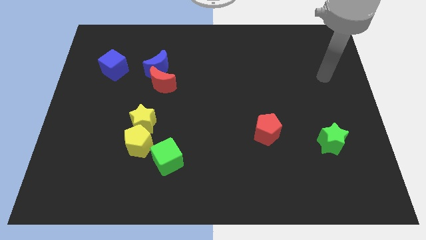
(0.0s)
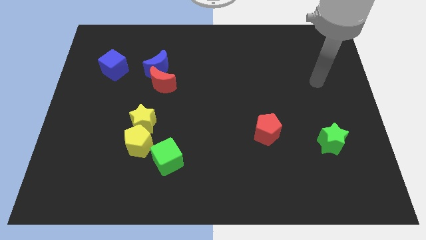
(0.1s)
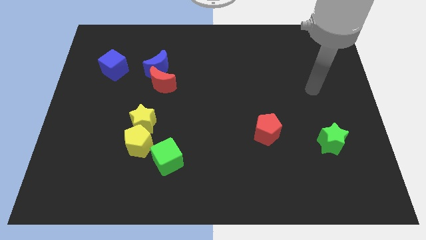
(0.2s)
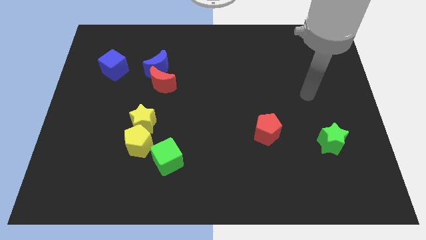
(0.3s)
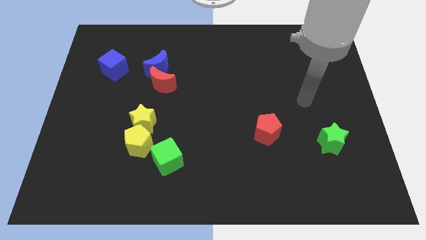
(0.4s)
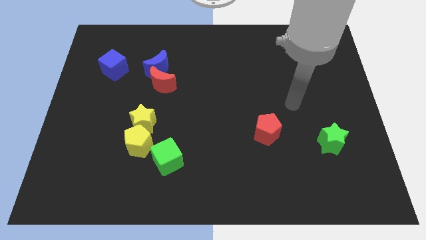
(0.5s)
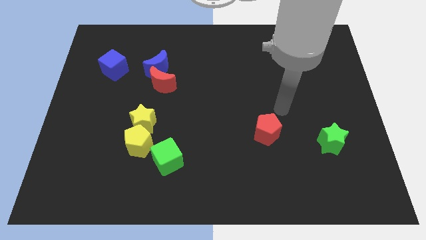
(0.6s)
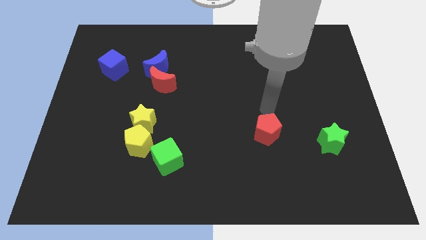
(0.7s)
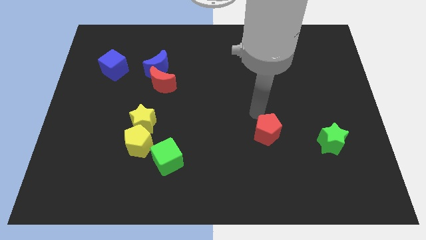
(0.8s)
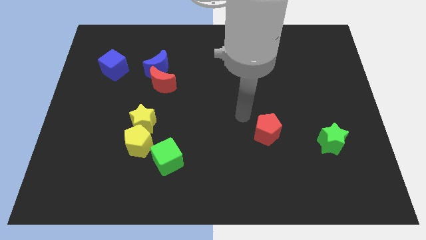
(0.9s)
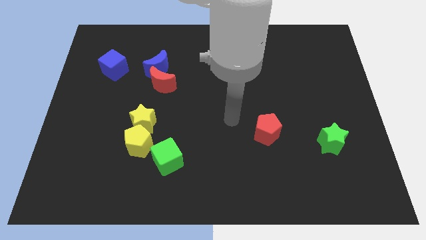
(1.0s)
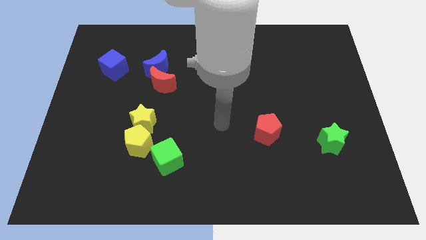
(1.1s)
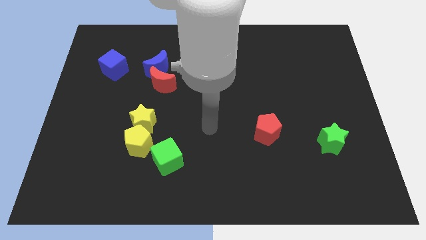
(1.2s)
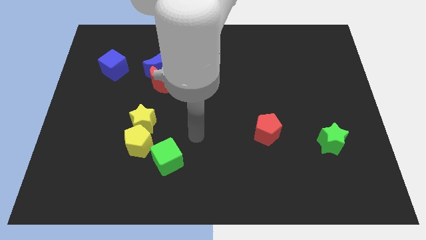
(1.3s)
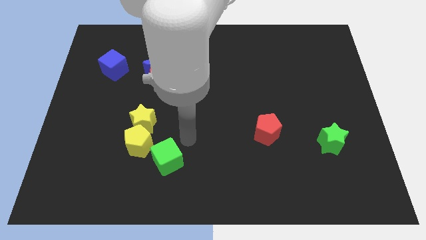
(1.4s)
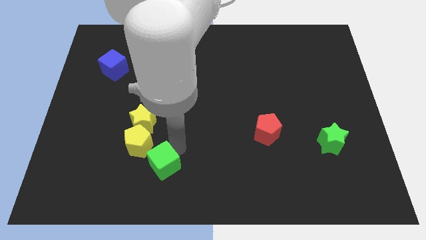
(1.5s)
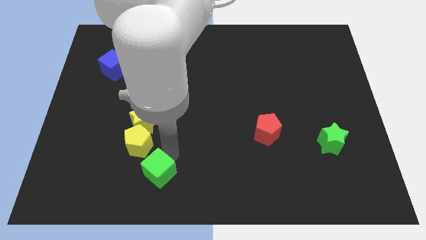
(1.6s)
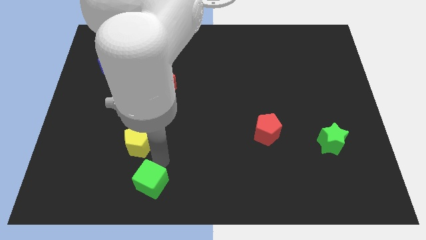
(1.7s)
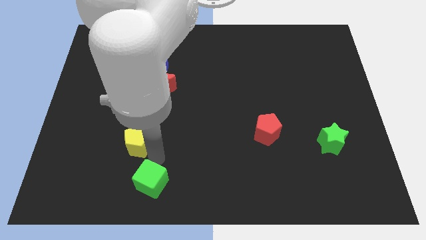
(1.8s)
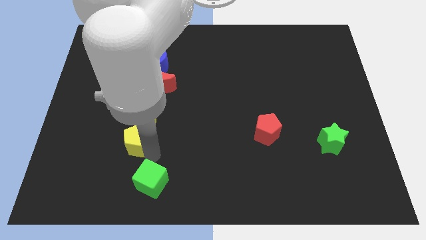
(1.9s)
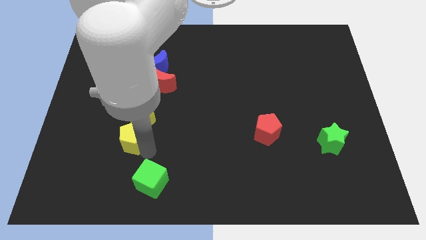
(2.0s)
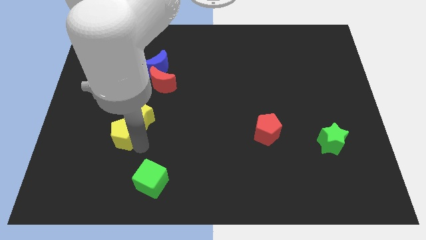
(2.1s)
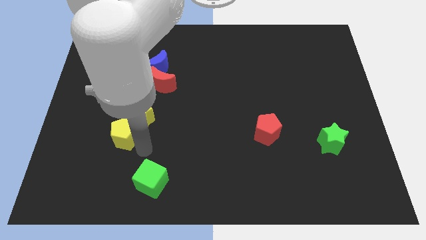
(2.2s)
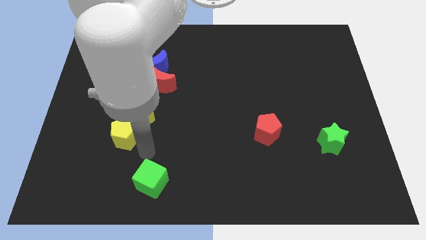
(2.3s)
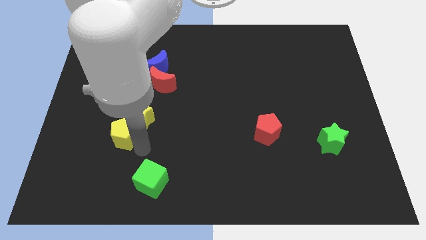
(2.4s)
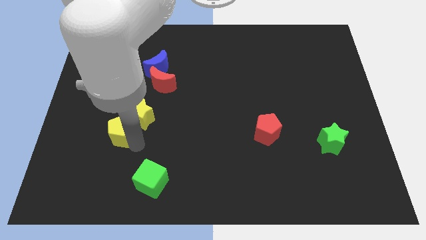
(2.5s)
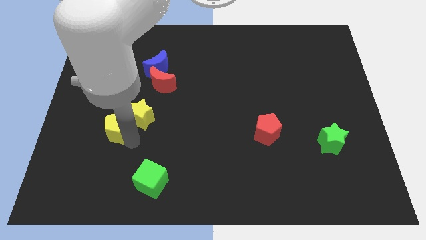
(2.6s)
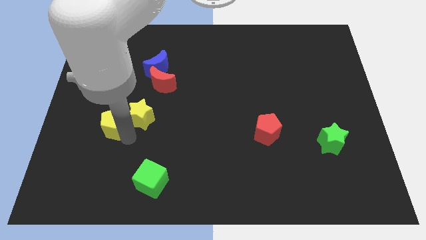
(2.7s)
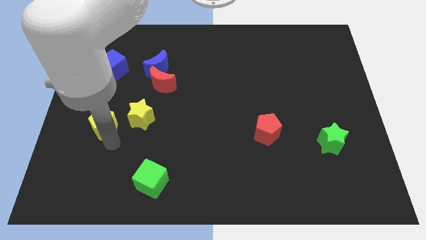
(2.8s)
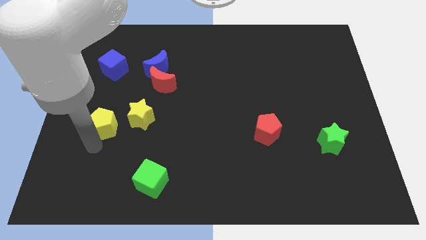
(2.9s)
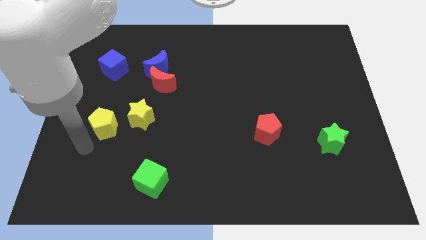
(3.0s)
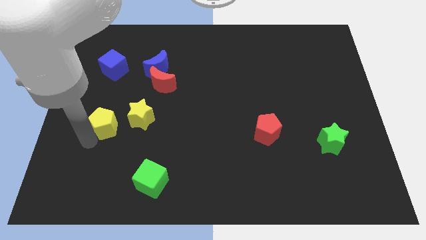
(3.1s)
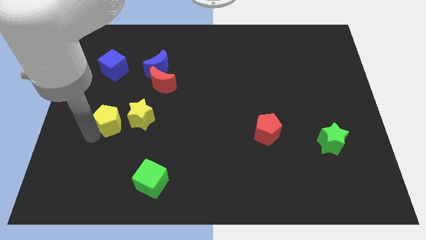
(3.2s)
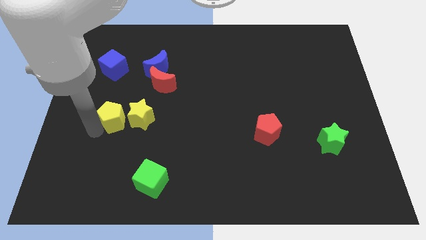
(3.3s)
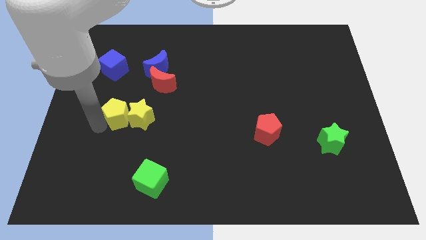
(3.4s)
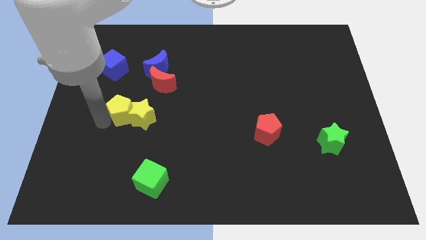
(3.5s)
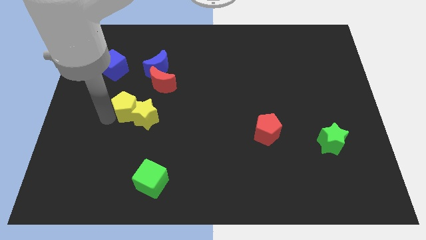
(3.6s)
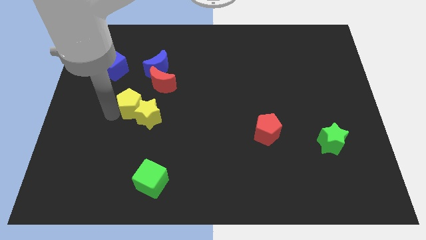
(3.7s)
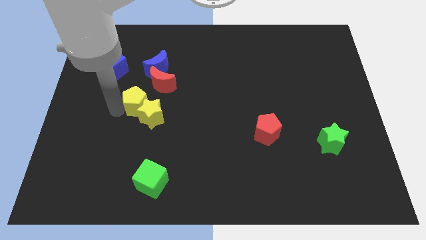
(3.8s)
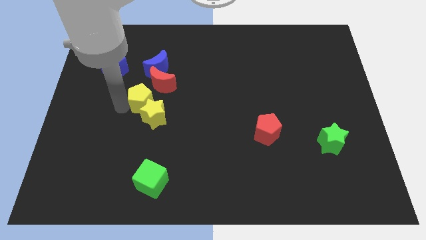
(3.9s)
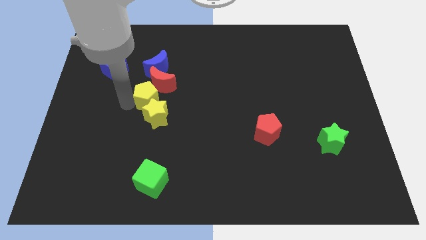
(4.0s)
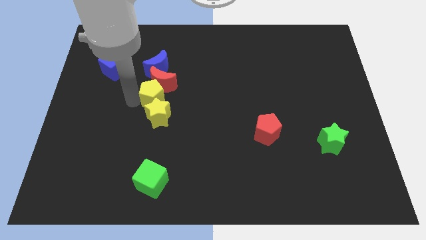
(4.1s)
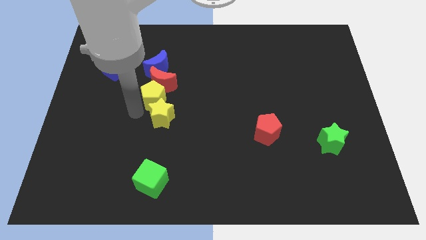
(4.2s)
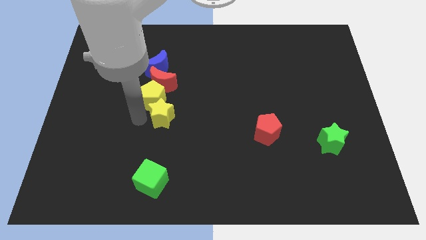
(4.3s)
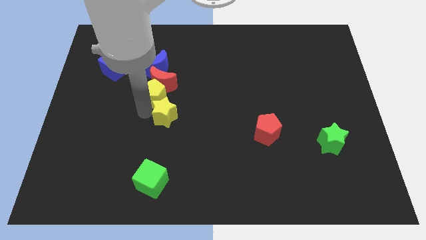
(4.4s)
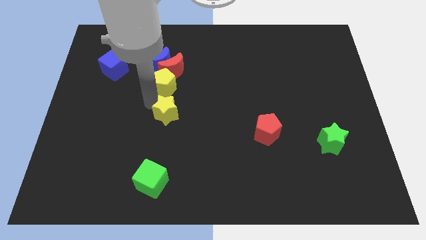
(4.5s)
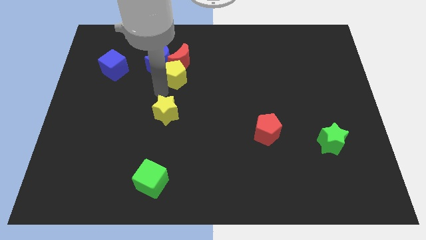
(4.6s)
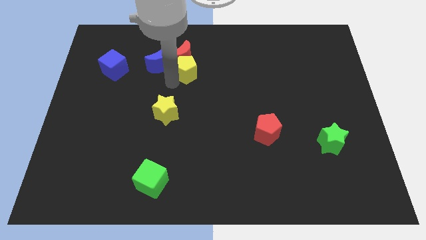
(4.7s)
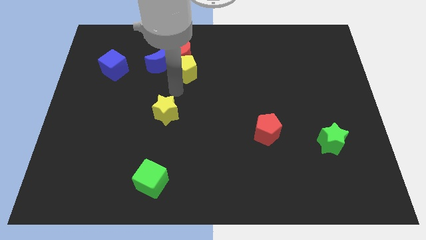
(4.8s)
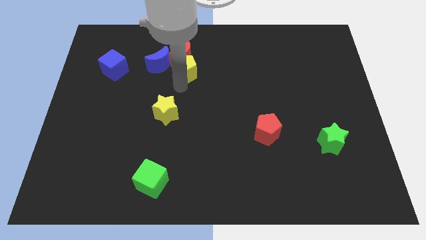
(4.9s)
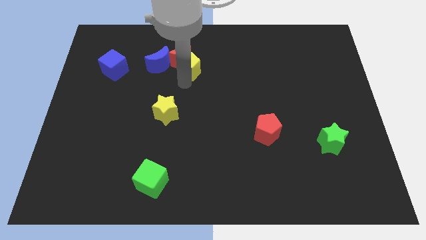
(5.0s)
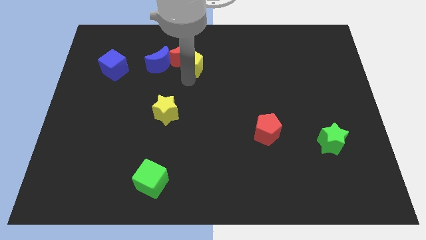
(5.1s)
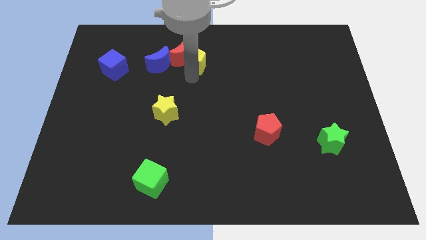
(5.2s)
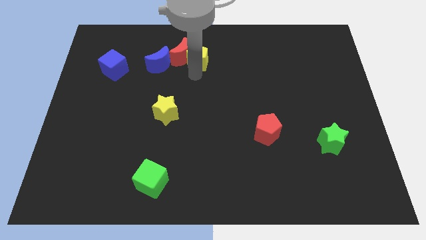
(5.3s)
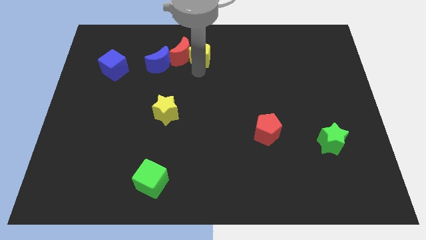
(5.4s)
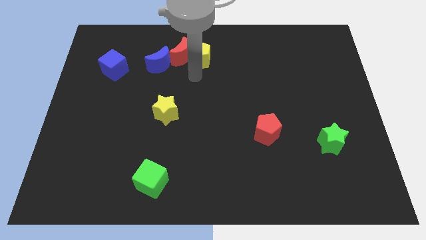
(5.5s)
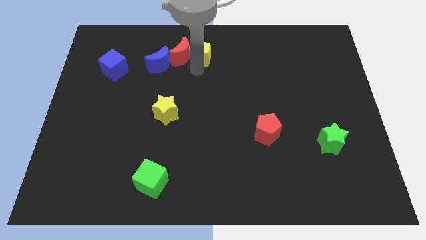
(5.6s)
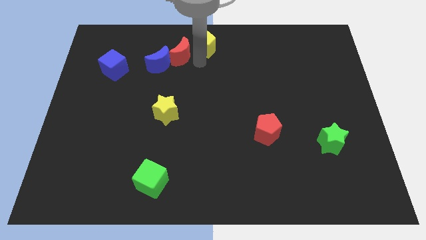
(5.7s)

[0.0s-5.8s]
push the yellow pentagon to the top

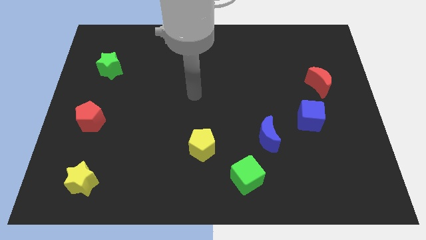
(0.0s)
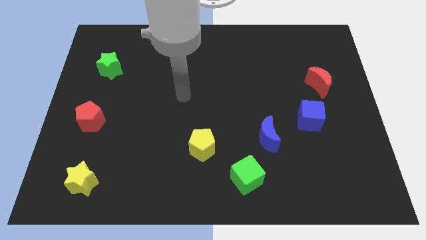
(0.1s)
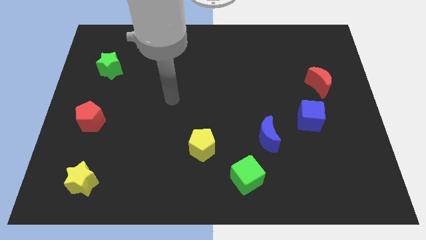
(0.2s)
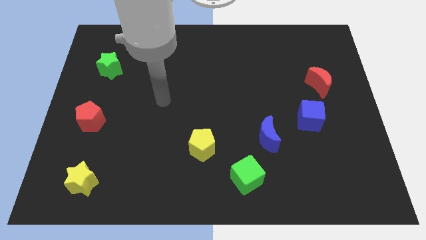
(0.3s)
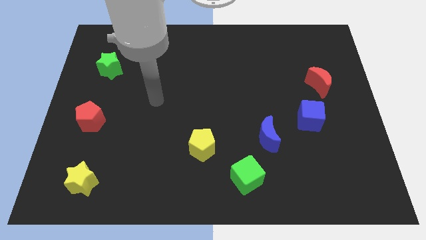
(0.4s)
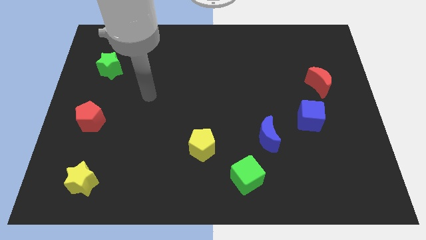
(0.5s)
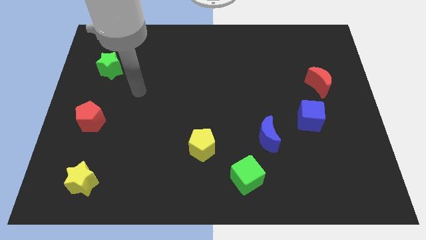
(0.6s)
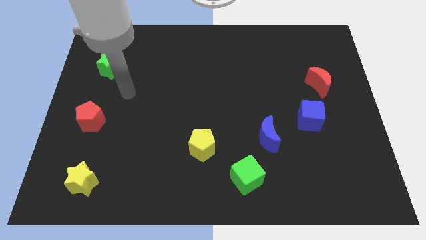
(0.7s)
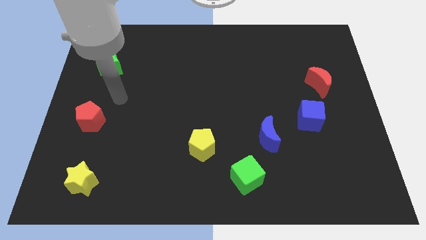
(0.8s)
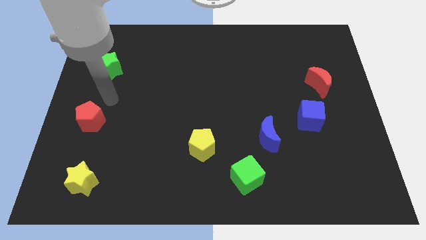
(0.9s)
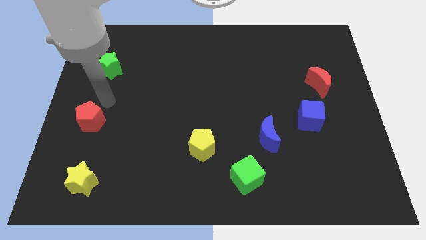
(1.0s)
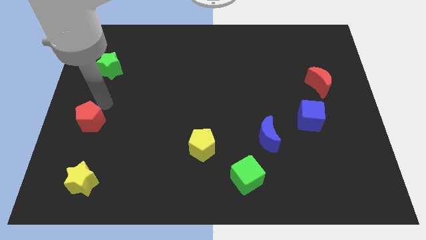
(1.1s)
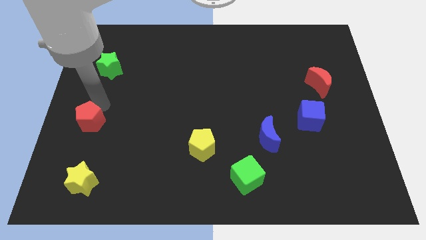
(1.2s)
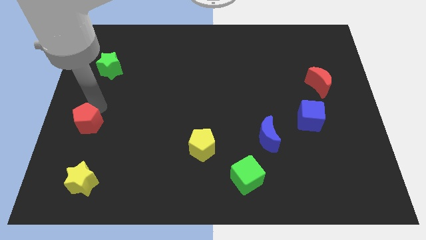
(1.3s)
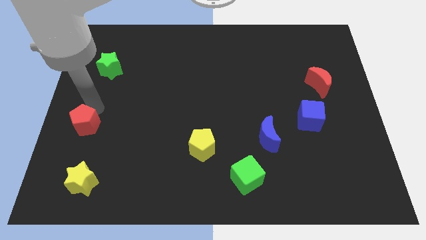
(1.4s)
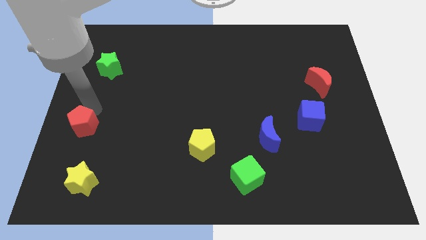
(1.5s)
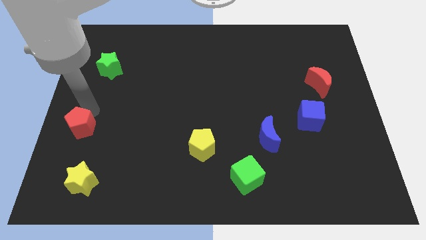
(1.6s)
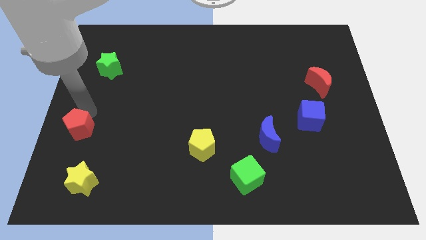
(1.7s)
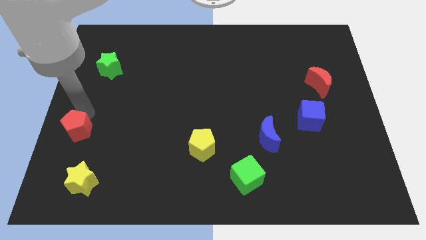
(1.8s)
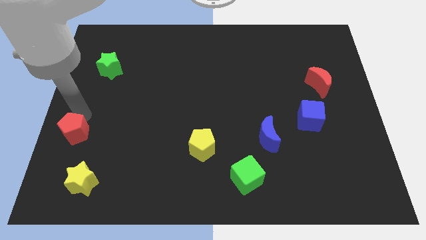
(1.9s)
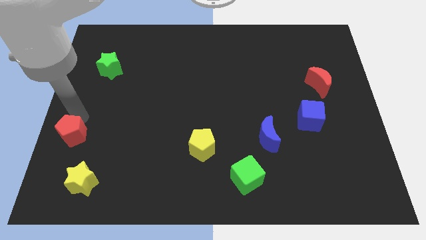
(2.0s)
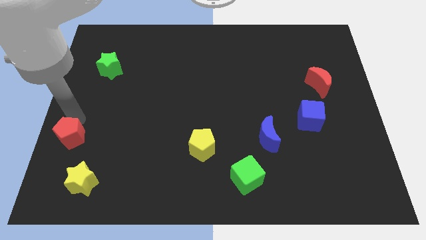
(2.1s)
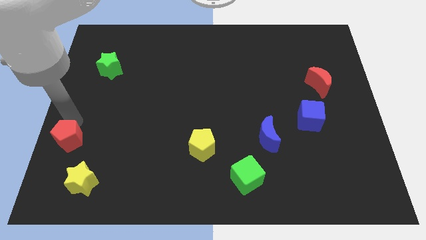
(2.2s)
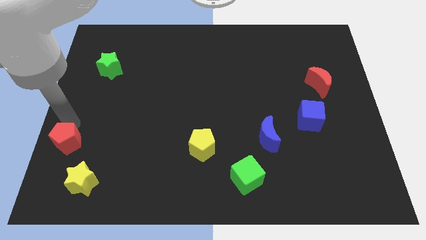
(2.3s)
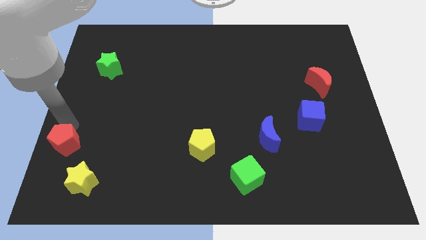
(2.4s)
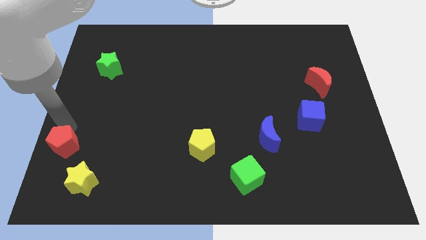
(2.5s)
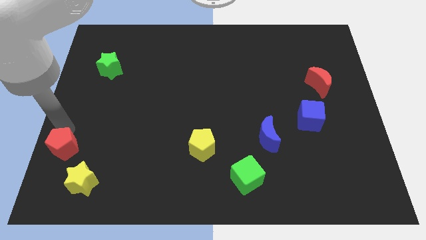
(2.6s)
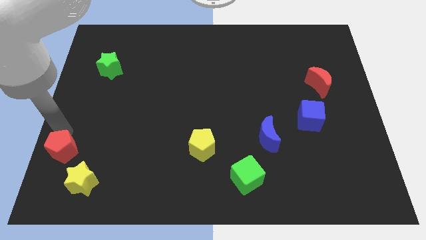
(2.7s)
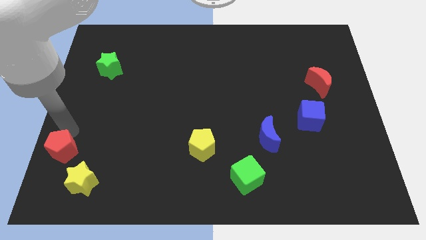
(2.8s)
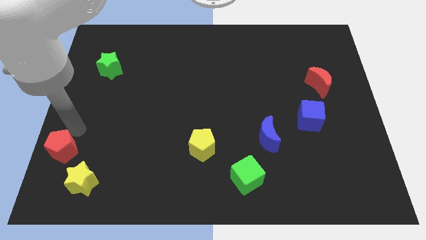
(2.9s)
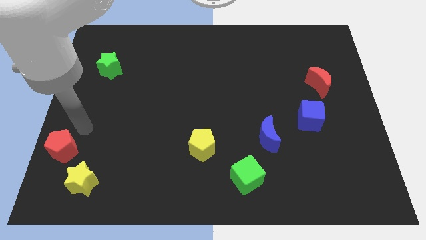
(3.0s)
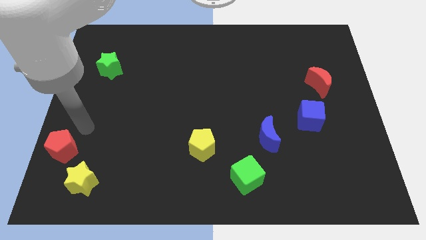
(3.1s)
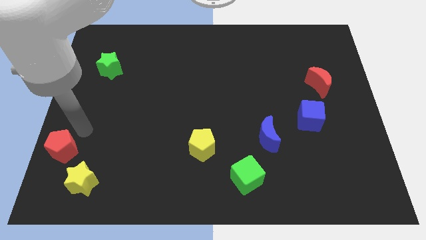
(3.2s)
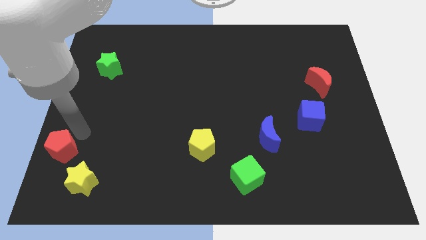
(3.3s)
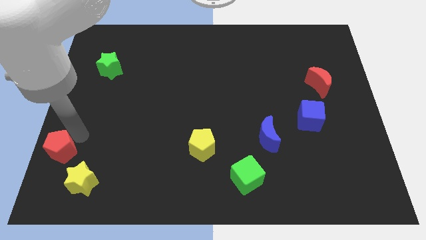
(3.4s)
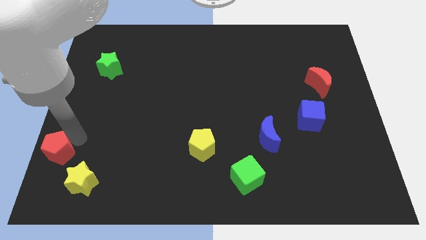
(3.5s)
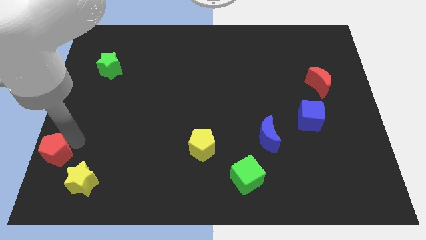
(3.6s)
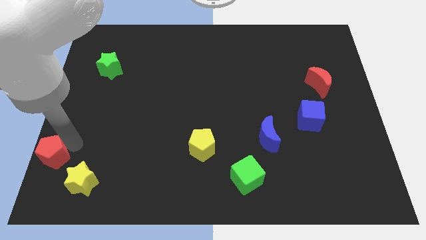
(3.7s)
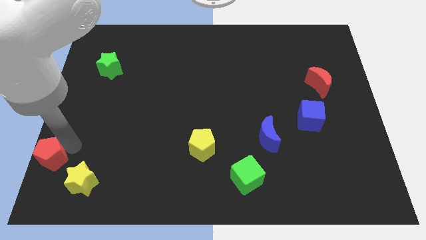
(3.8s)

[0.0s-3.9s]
move the red pentagon to the bottom left of the board
